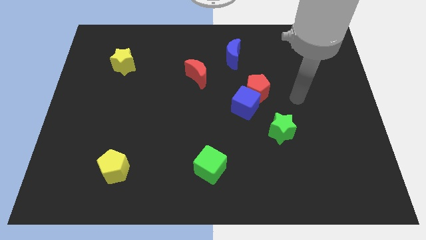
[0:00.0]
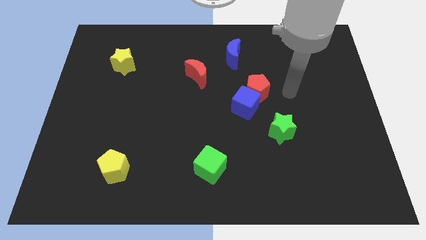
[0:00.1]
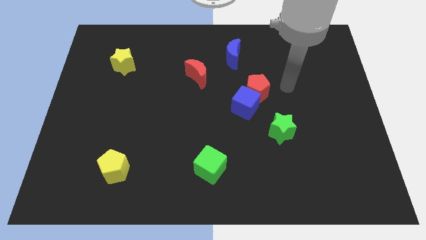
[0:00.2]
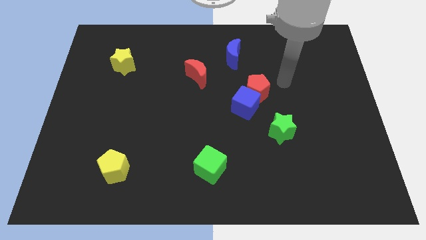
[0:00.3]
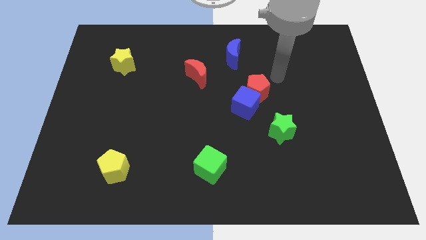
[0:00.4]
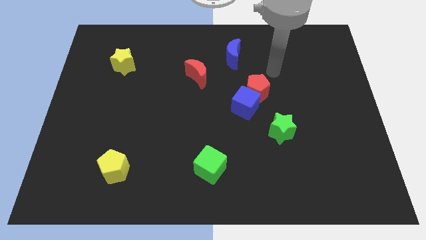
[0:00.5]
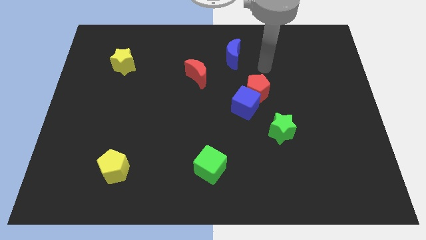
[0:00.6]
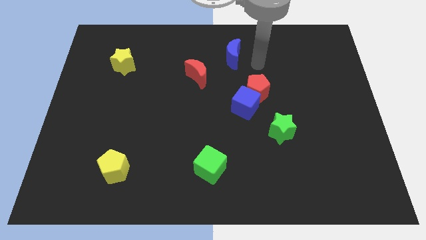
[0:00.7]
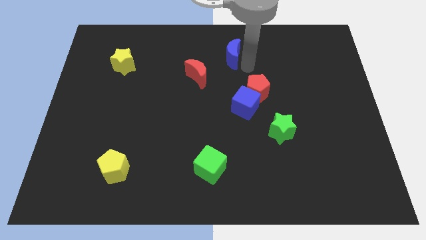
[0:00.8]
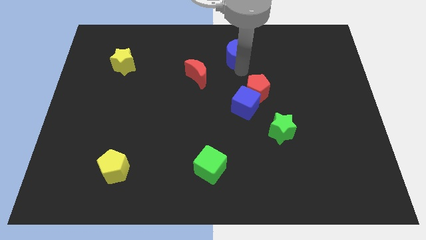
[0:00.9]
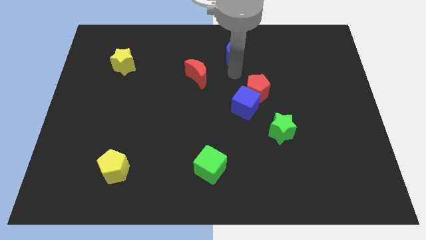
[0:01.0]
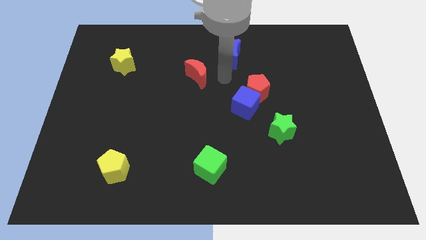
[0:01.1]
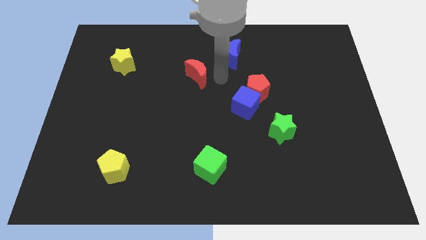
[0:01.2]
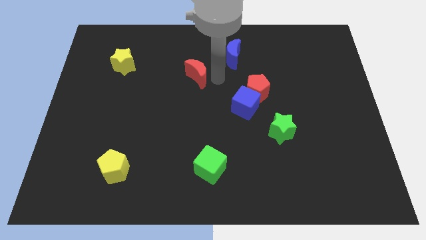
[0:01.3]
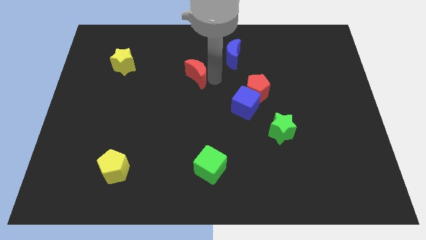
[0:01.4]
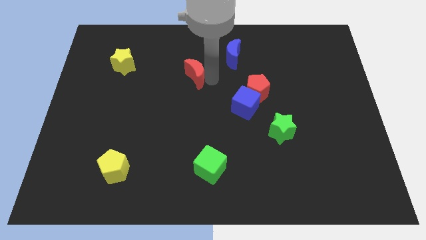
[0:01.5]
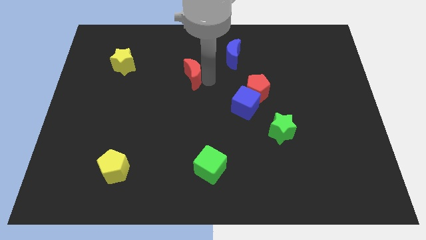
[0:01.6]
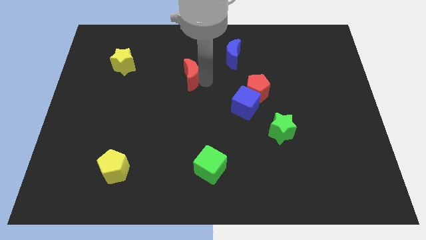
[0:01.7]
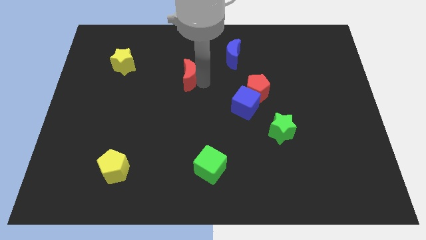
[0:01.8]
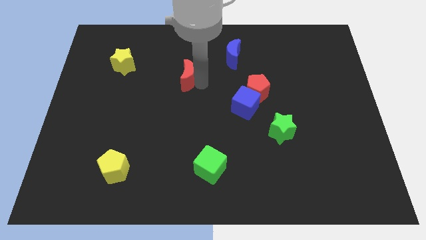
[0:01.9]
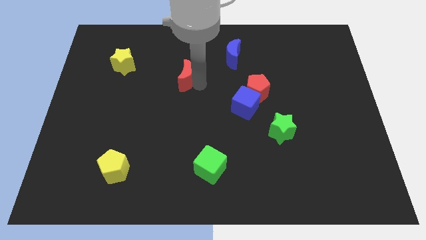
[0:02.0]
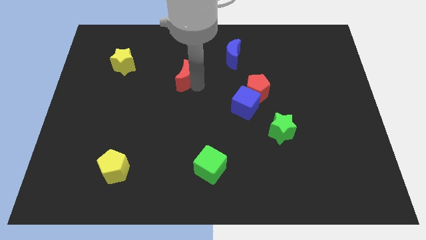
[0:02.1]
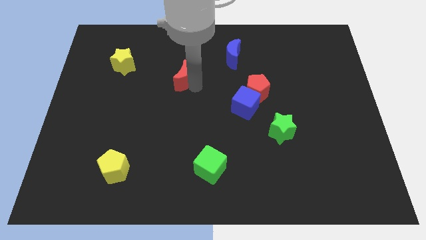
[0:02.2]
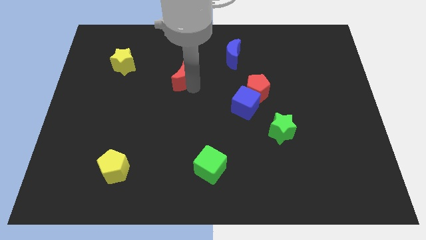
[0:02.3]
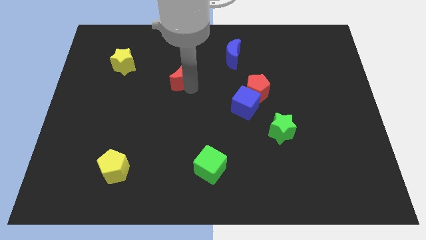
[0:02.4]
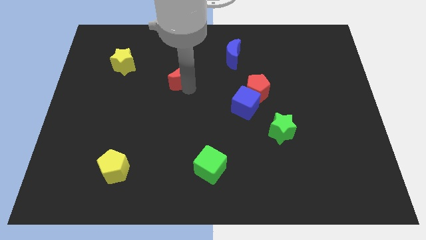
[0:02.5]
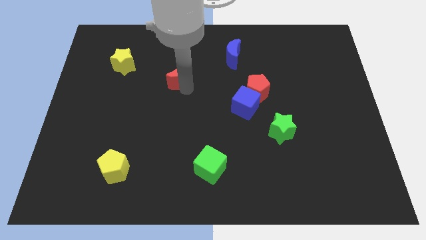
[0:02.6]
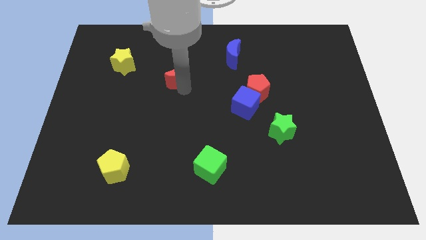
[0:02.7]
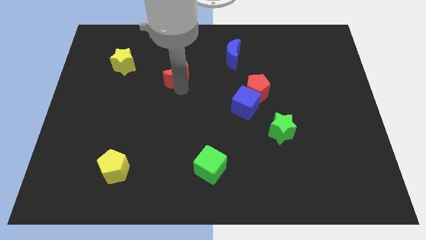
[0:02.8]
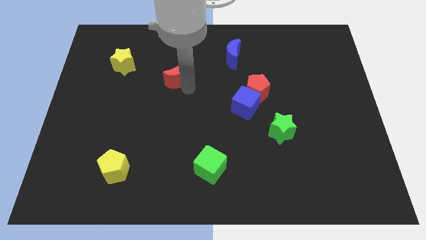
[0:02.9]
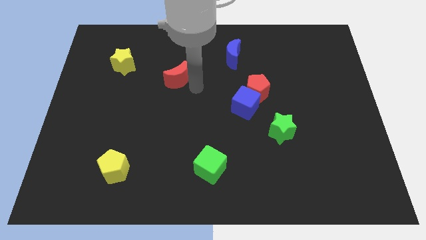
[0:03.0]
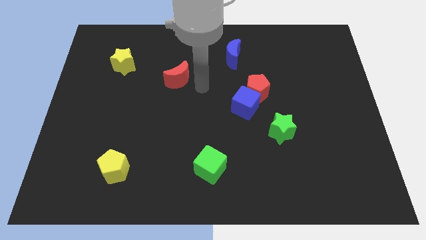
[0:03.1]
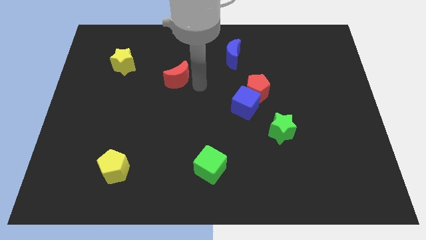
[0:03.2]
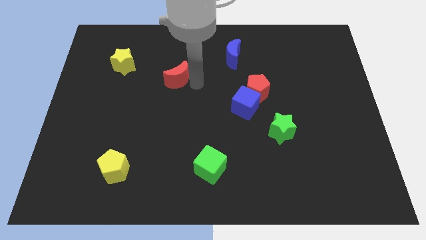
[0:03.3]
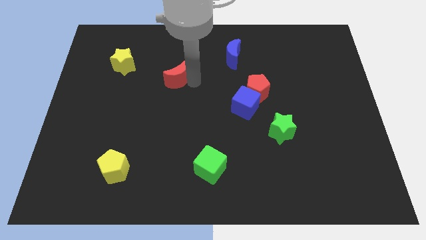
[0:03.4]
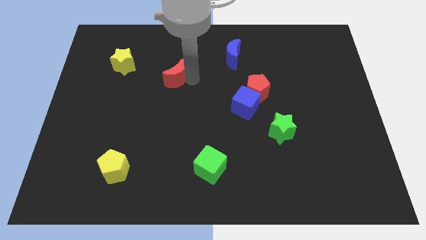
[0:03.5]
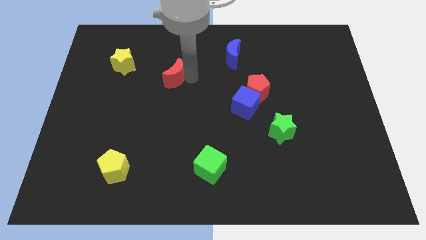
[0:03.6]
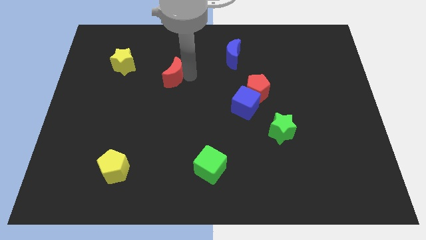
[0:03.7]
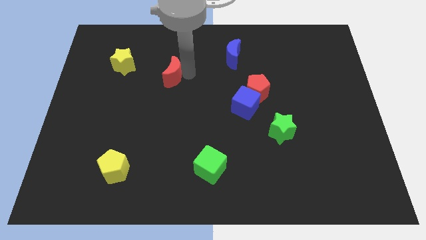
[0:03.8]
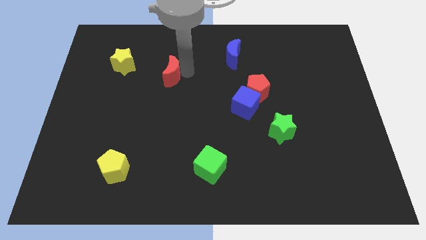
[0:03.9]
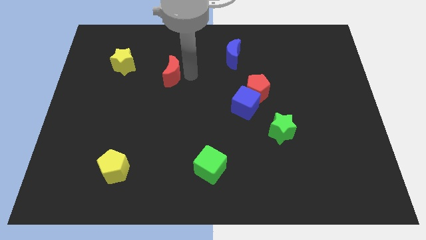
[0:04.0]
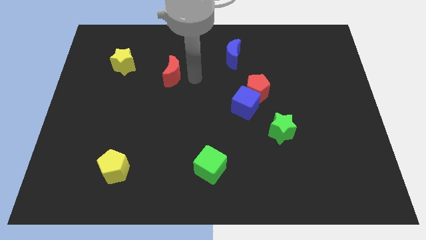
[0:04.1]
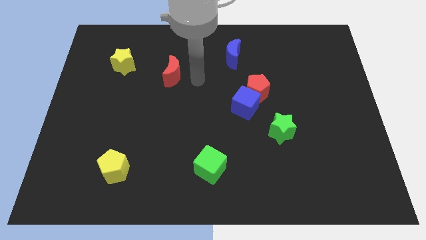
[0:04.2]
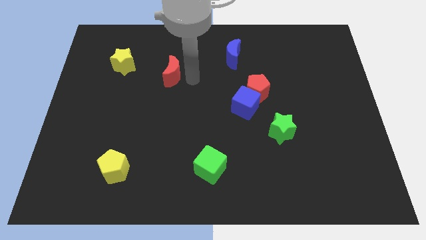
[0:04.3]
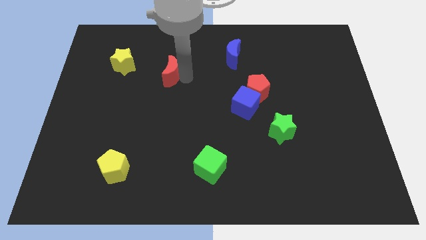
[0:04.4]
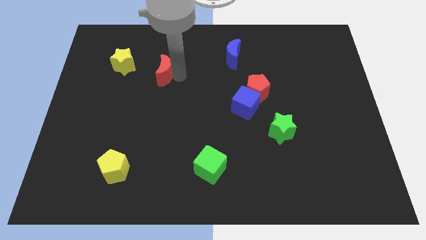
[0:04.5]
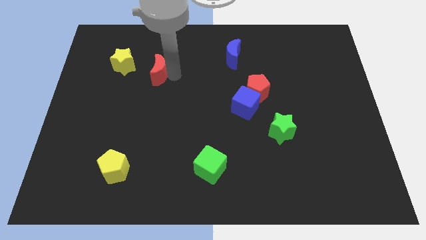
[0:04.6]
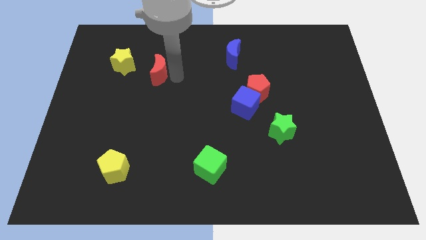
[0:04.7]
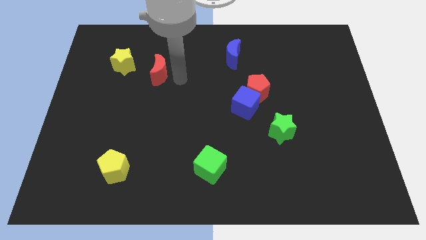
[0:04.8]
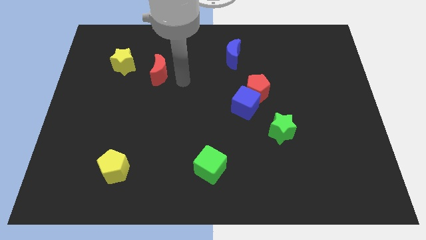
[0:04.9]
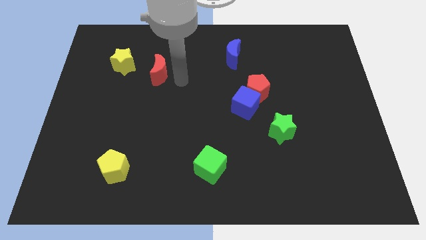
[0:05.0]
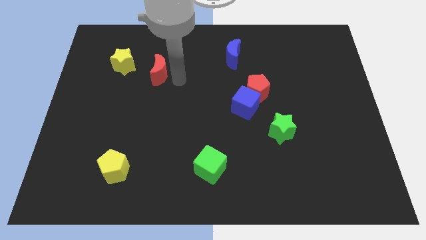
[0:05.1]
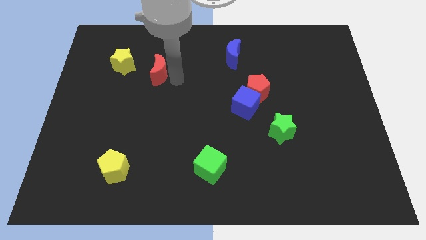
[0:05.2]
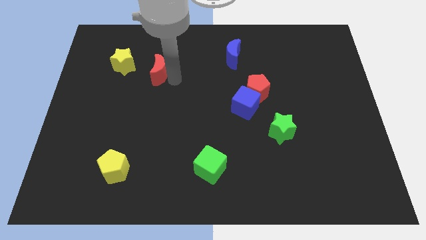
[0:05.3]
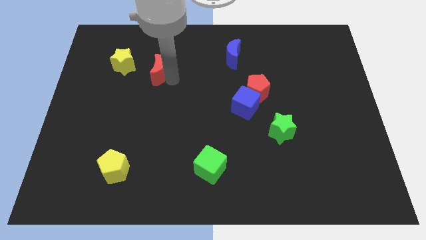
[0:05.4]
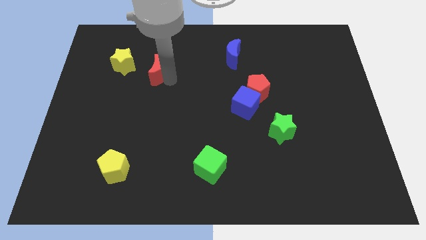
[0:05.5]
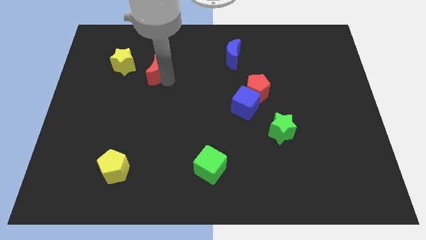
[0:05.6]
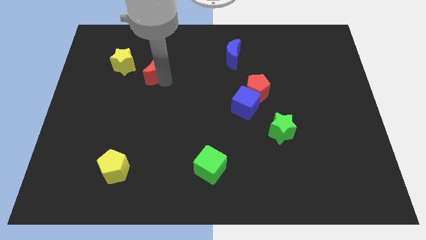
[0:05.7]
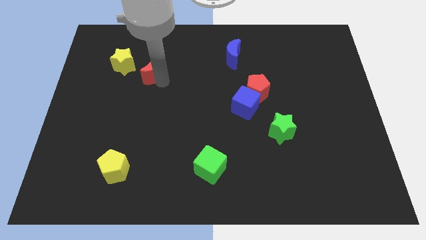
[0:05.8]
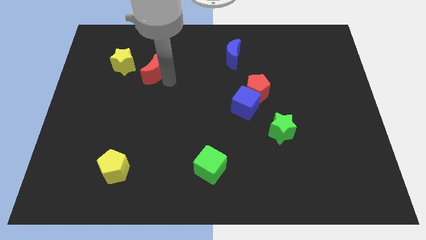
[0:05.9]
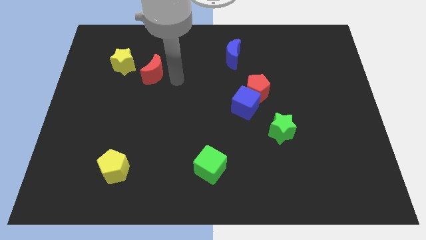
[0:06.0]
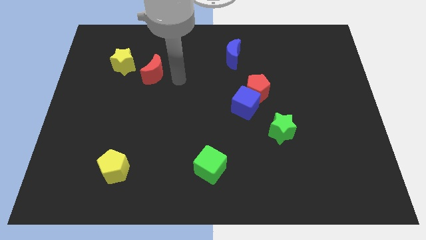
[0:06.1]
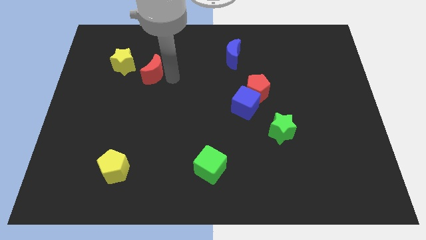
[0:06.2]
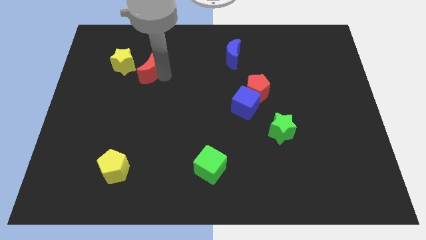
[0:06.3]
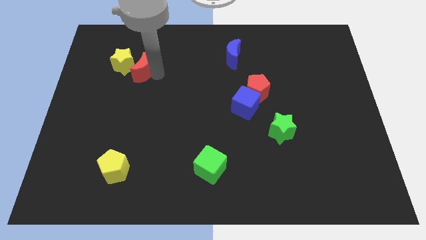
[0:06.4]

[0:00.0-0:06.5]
slide the red moon close to the yellow star

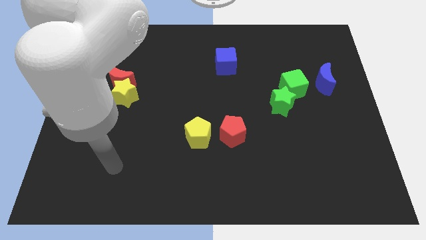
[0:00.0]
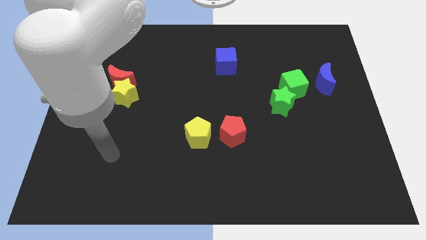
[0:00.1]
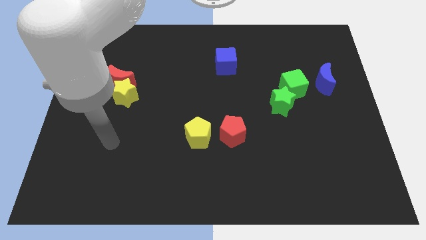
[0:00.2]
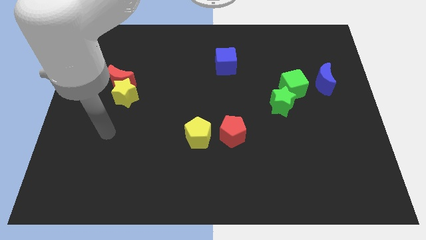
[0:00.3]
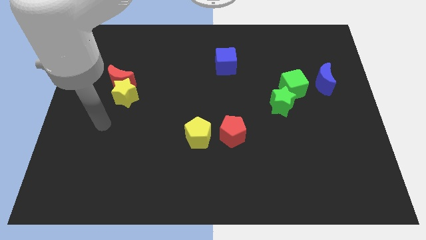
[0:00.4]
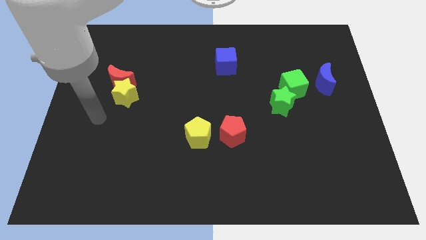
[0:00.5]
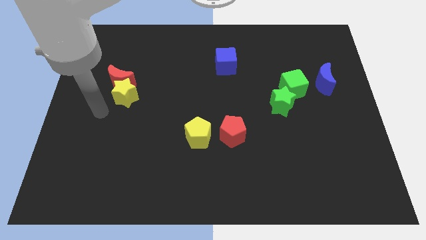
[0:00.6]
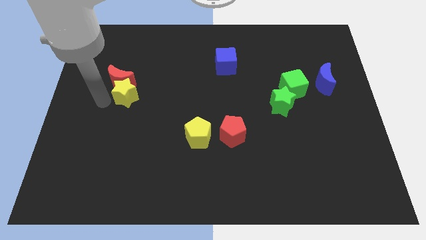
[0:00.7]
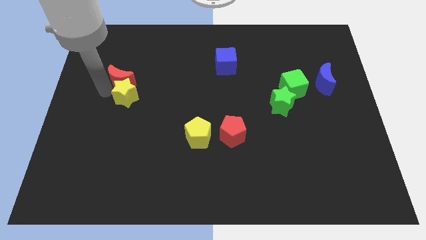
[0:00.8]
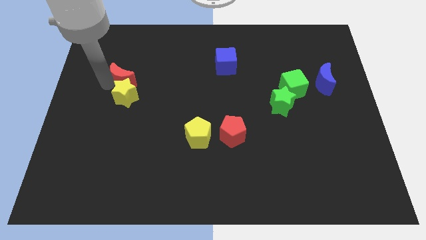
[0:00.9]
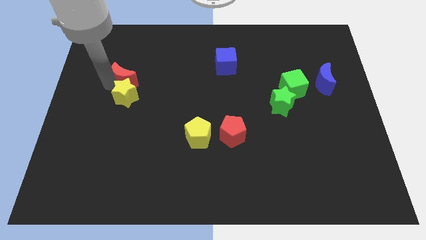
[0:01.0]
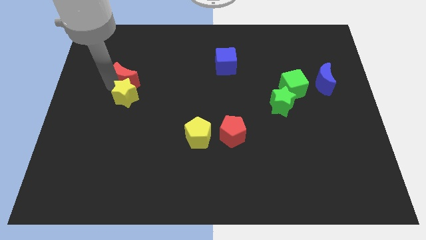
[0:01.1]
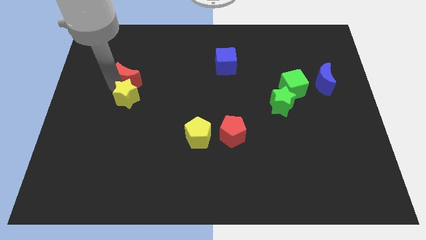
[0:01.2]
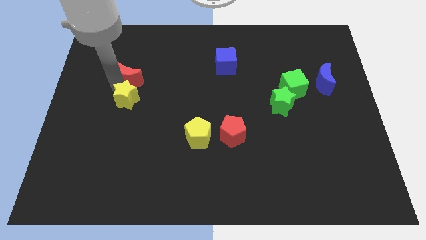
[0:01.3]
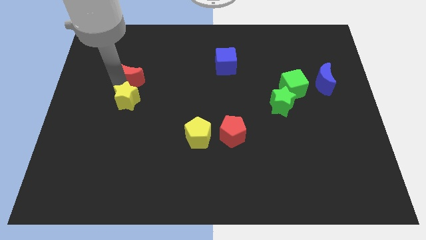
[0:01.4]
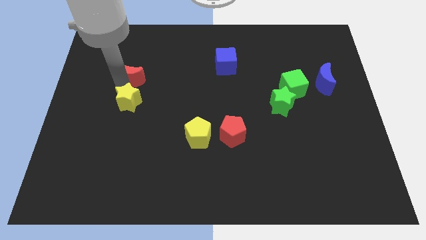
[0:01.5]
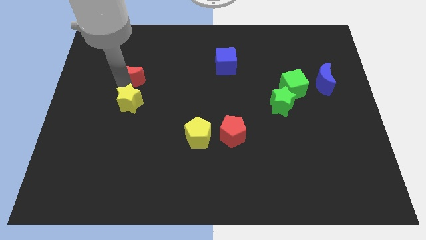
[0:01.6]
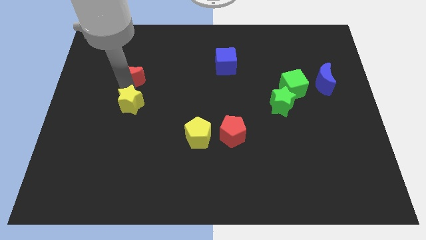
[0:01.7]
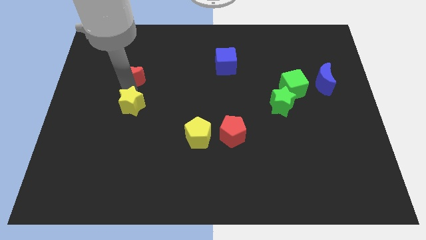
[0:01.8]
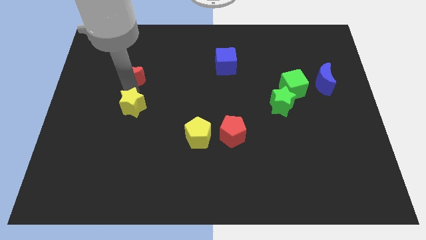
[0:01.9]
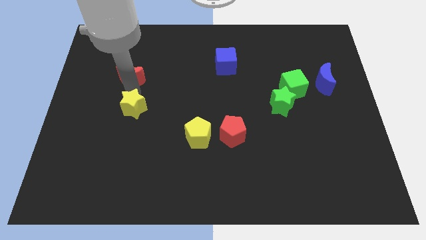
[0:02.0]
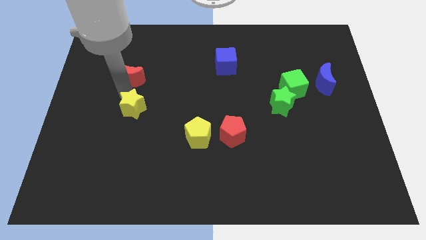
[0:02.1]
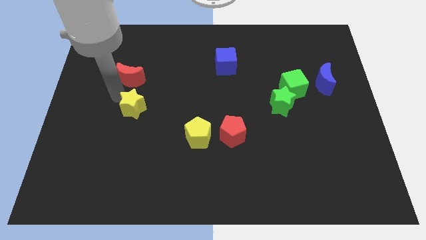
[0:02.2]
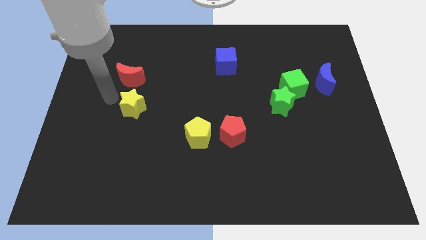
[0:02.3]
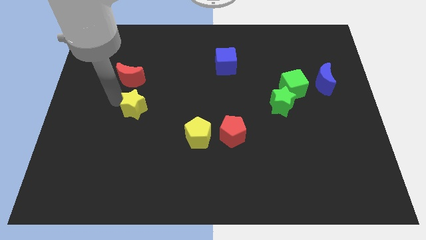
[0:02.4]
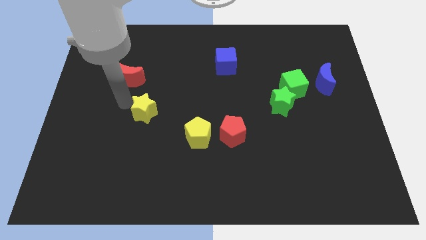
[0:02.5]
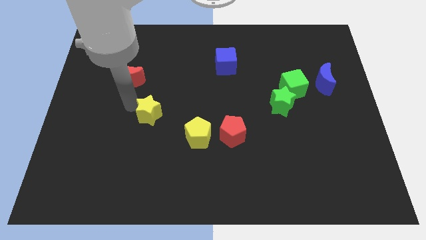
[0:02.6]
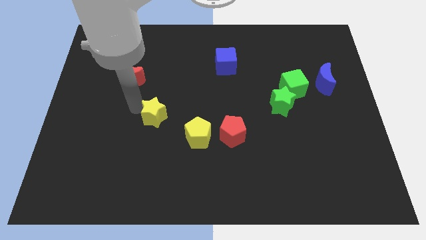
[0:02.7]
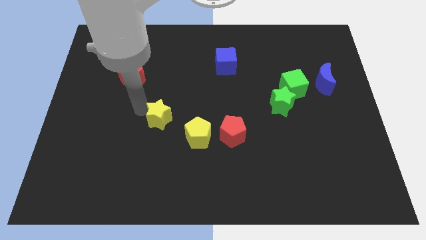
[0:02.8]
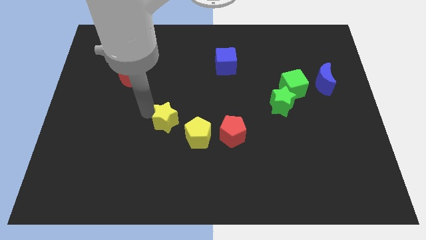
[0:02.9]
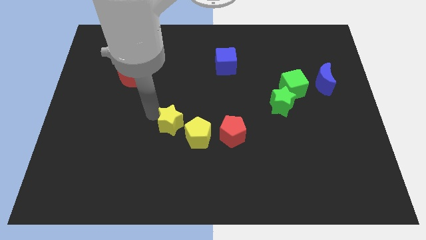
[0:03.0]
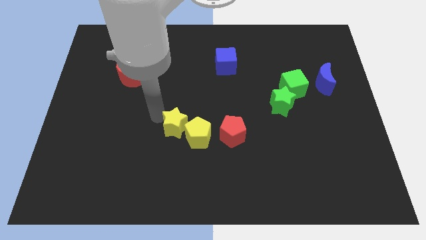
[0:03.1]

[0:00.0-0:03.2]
push the yellow star towards the yellow pentagon
